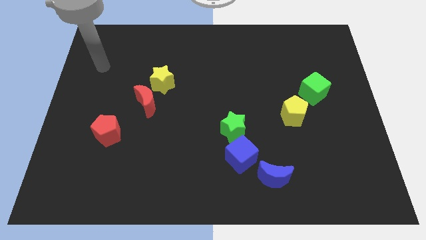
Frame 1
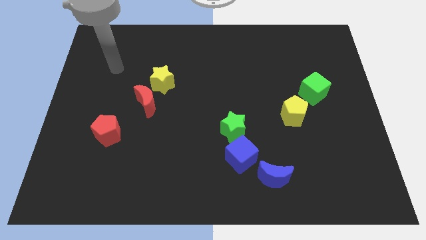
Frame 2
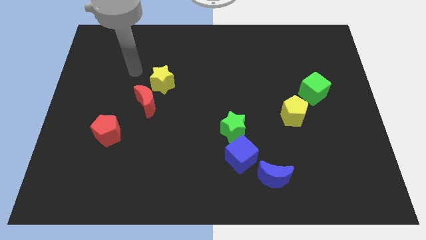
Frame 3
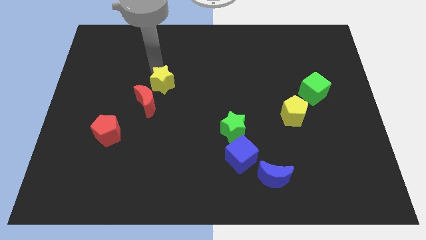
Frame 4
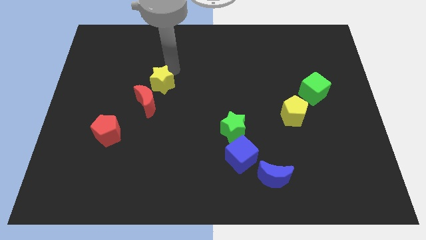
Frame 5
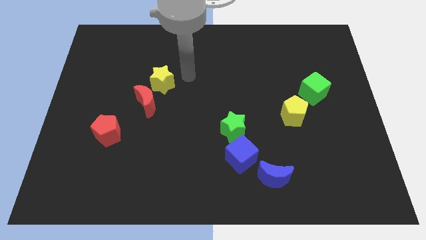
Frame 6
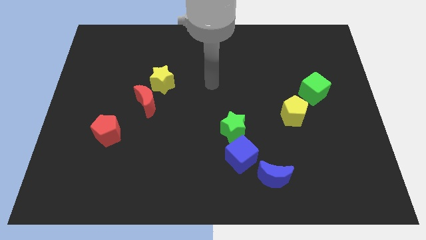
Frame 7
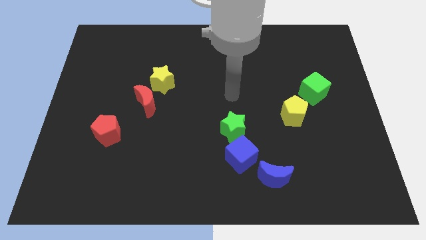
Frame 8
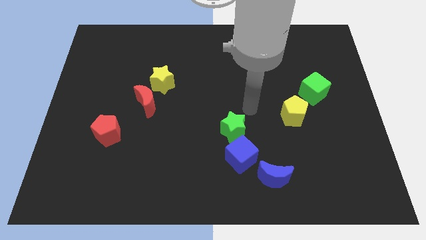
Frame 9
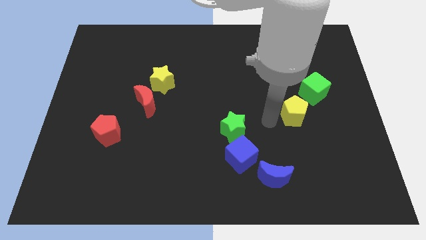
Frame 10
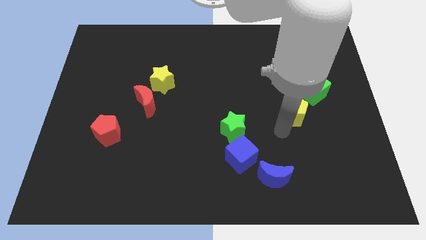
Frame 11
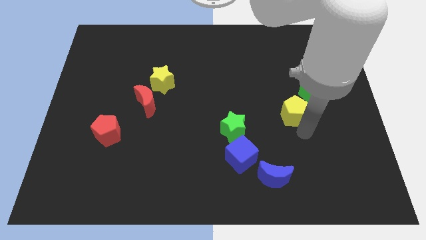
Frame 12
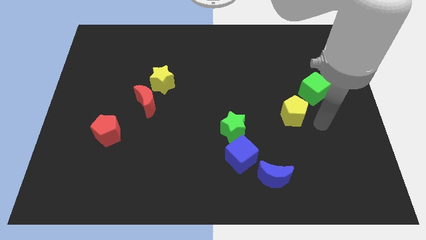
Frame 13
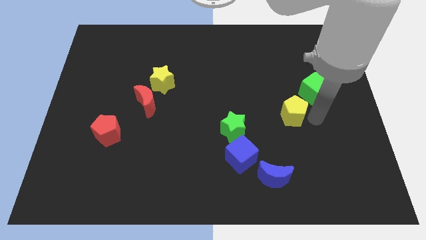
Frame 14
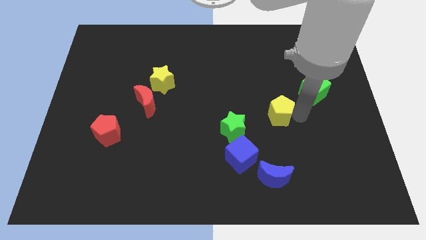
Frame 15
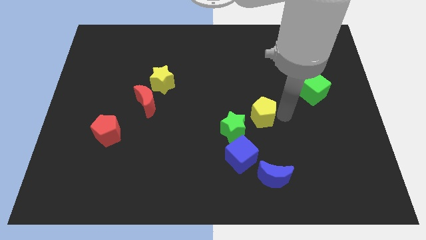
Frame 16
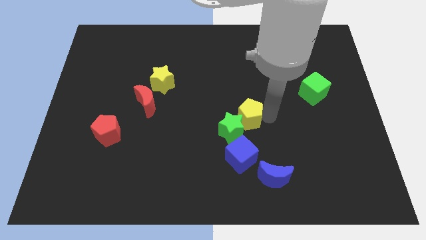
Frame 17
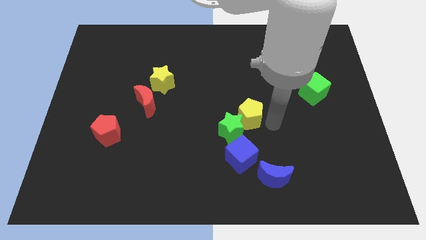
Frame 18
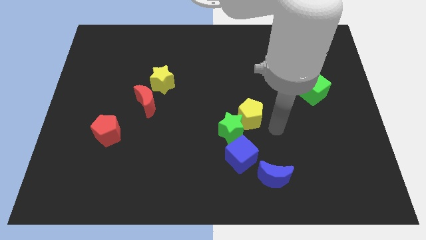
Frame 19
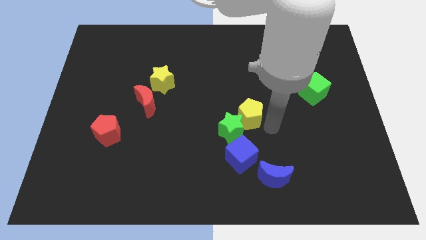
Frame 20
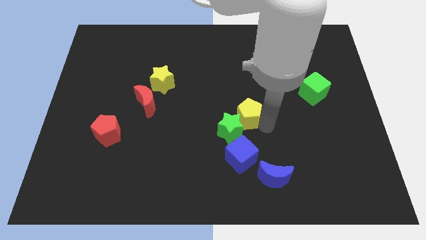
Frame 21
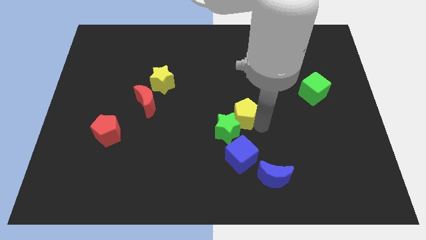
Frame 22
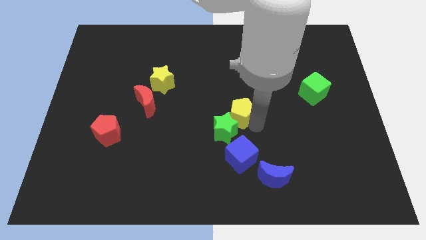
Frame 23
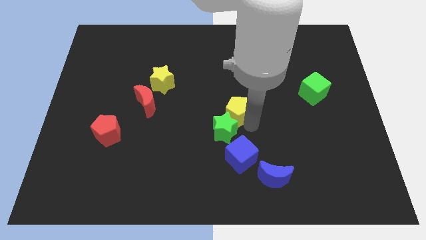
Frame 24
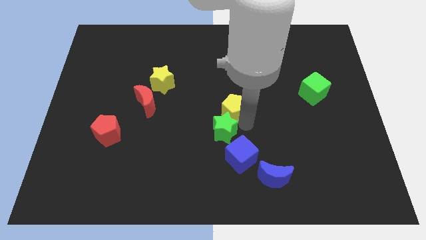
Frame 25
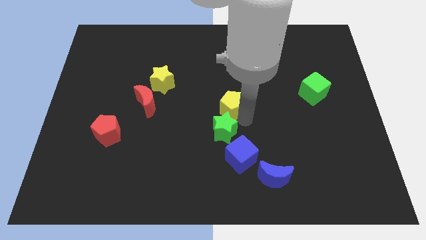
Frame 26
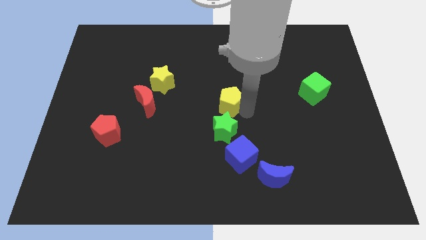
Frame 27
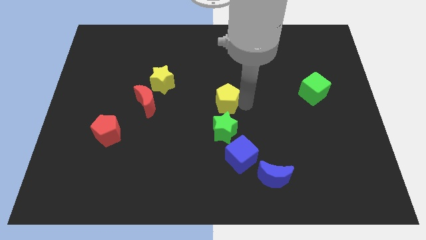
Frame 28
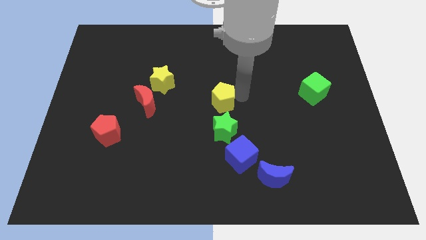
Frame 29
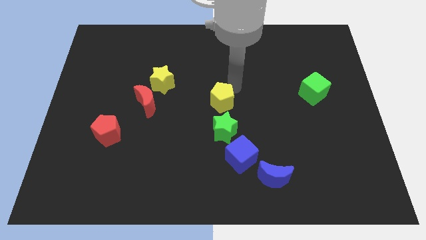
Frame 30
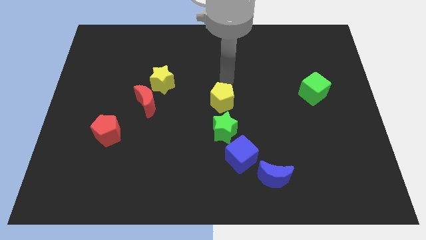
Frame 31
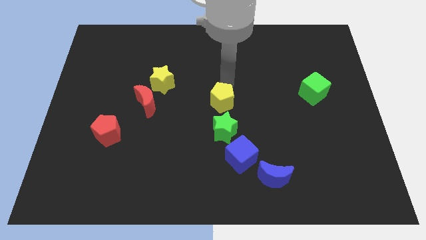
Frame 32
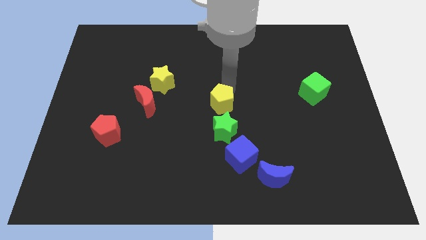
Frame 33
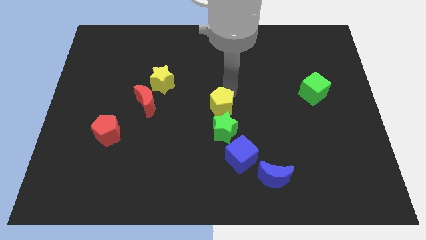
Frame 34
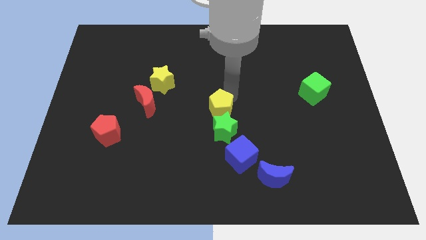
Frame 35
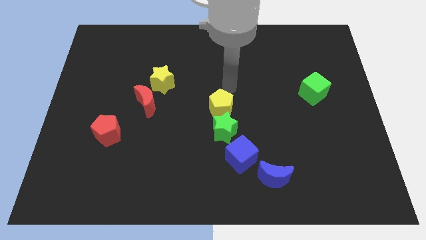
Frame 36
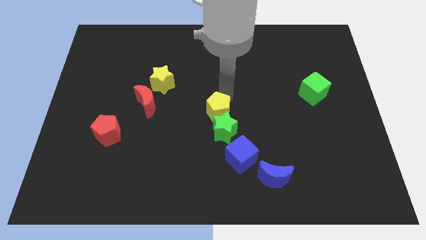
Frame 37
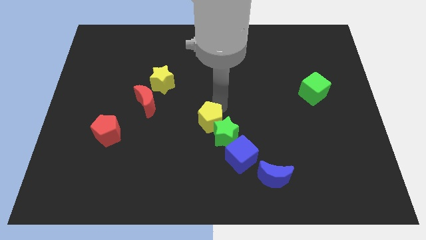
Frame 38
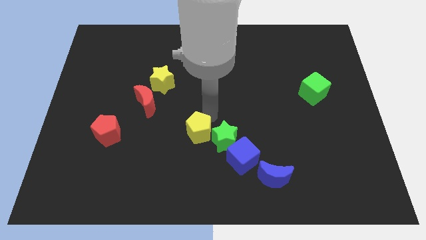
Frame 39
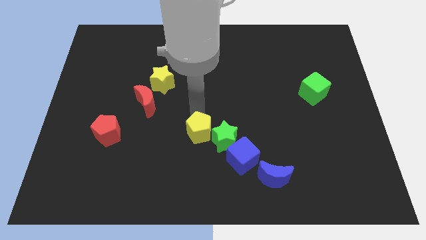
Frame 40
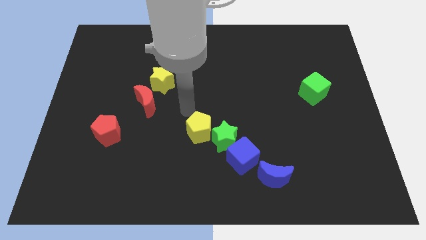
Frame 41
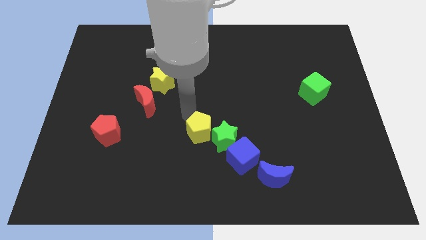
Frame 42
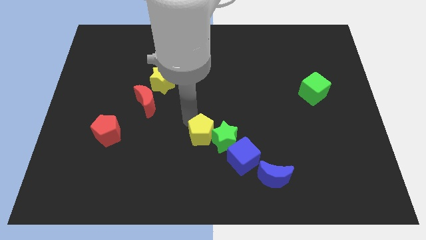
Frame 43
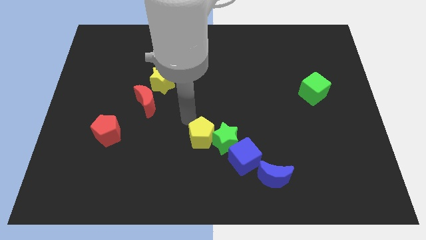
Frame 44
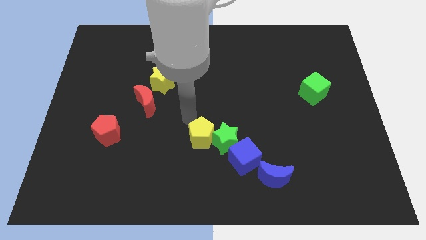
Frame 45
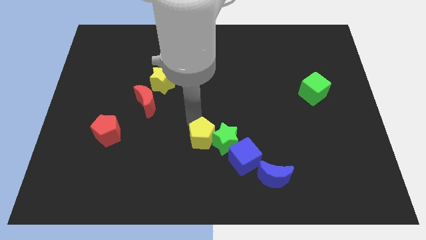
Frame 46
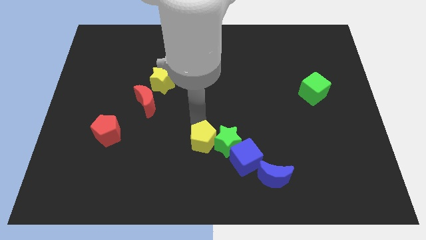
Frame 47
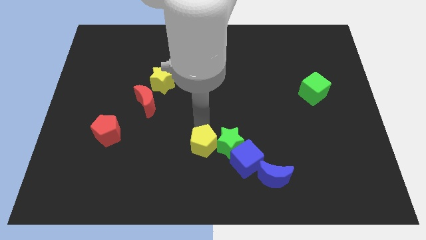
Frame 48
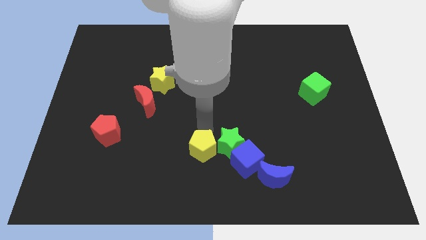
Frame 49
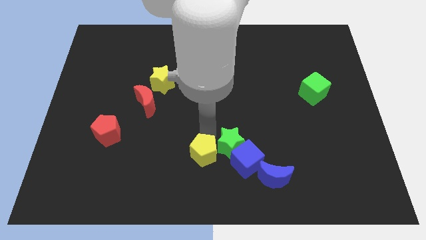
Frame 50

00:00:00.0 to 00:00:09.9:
slide the yellow pentagon to the bottom side

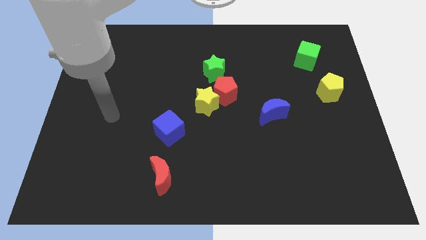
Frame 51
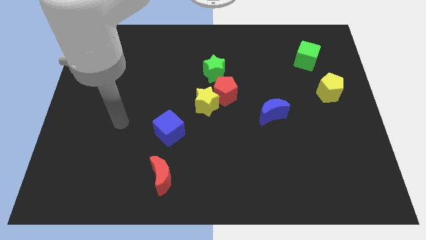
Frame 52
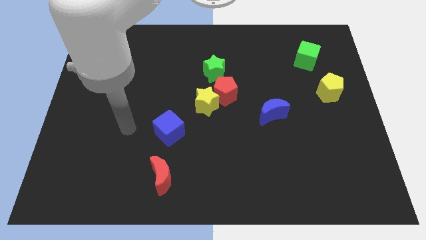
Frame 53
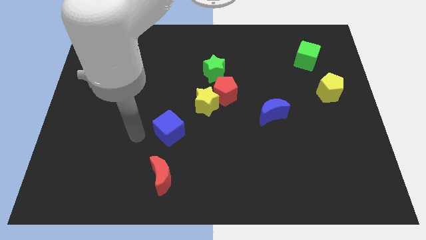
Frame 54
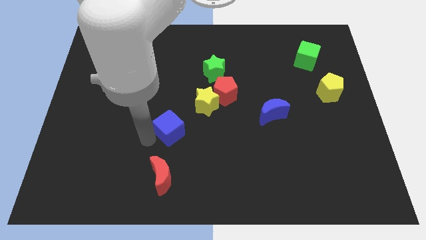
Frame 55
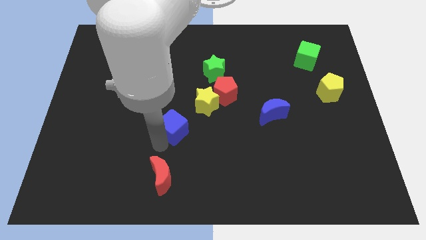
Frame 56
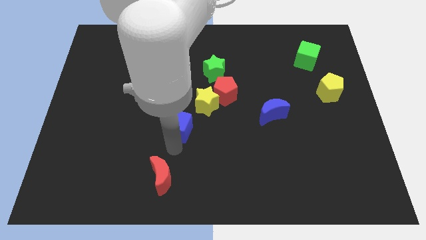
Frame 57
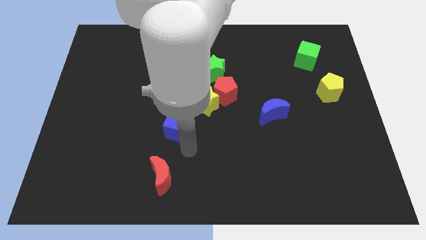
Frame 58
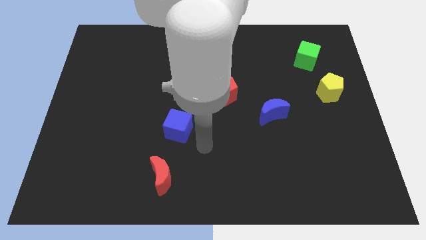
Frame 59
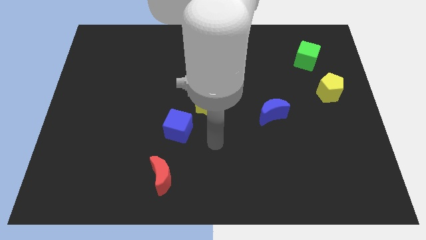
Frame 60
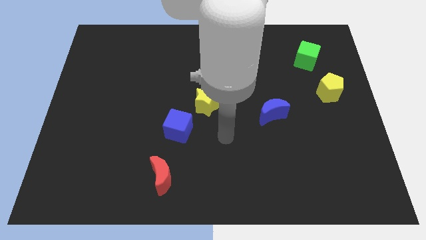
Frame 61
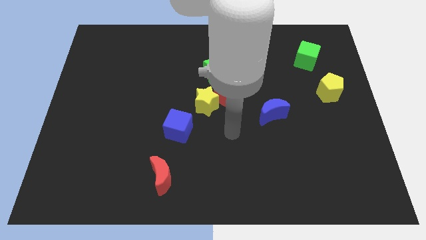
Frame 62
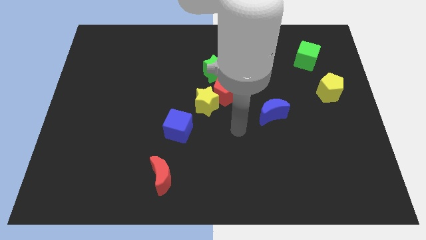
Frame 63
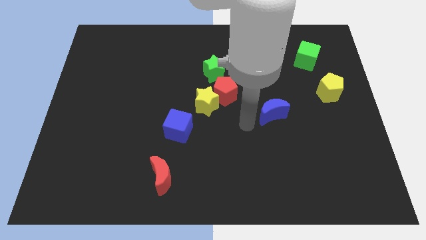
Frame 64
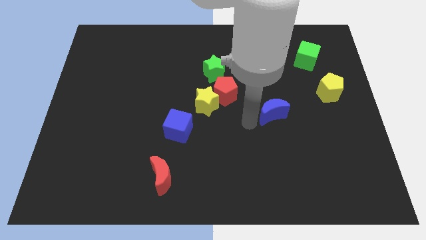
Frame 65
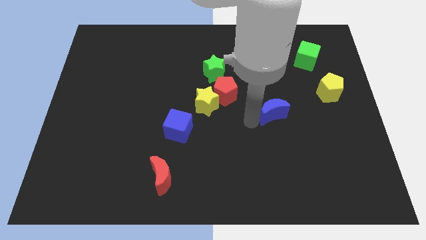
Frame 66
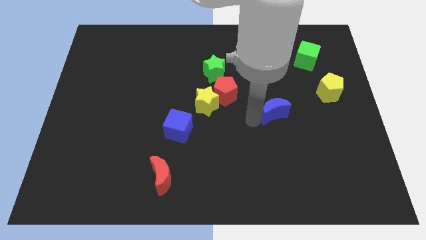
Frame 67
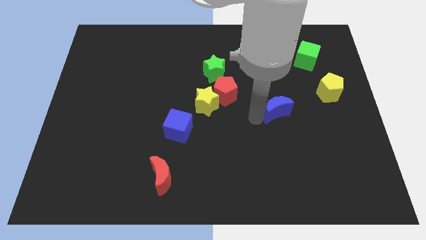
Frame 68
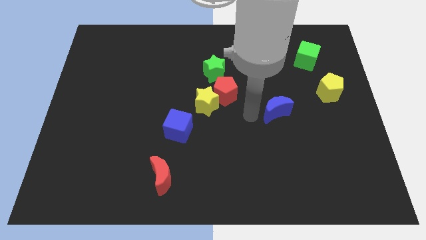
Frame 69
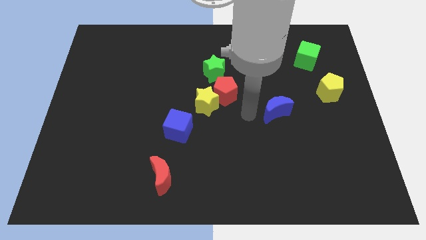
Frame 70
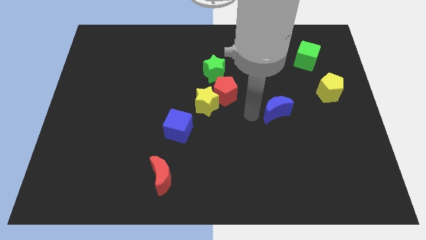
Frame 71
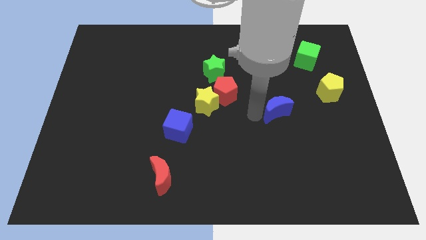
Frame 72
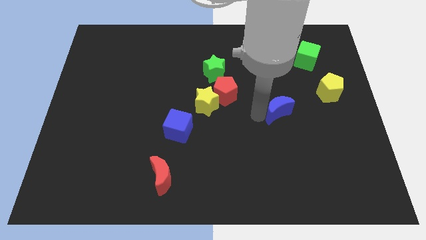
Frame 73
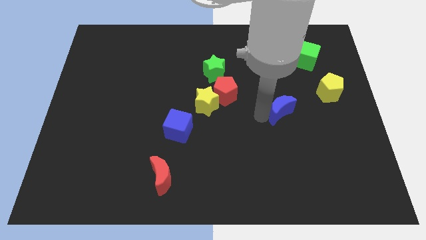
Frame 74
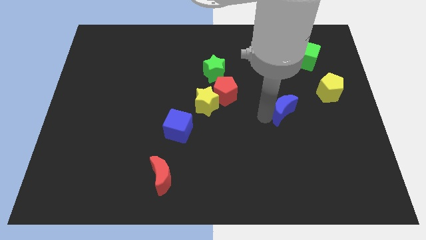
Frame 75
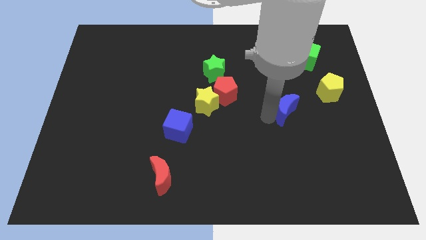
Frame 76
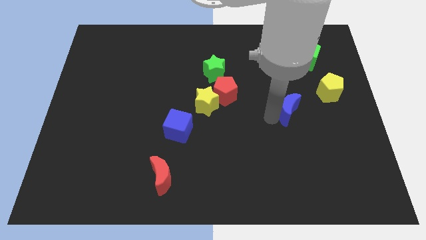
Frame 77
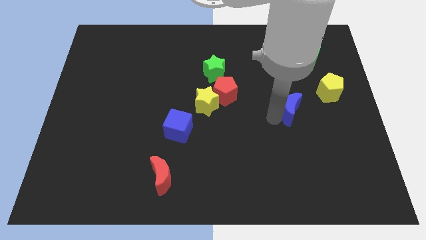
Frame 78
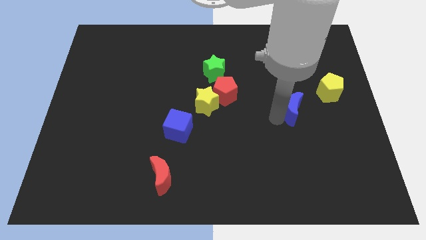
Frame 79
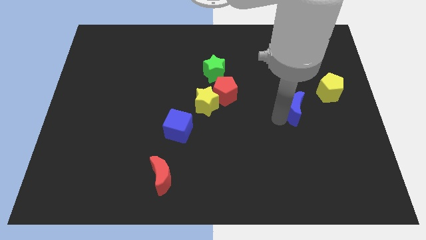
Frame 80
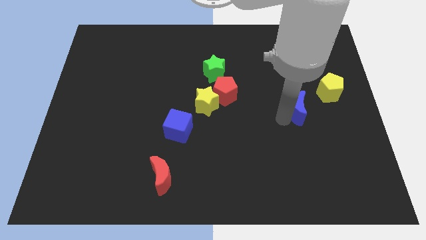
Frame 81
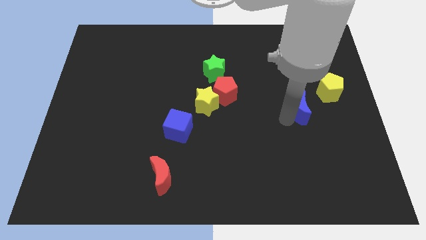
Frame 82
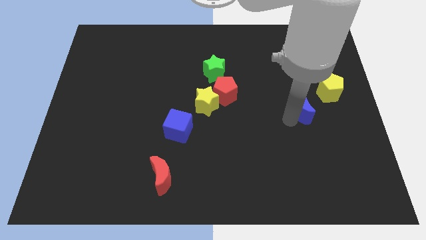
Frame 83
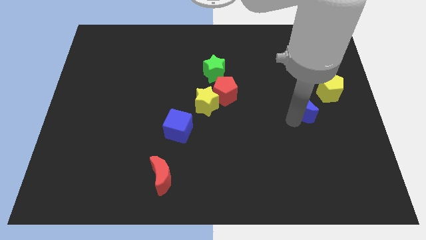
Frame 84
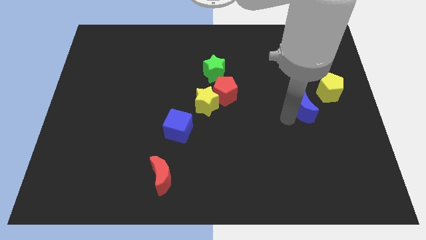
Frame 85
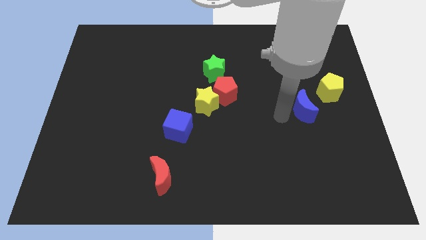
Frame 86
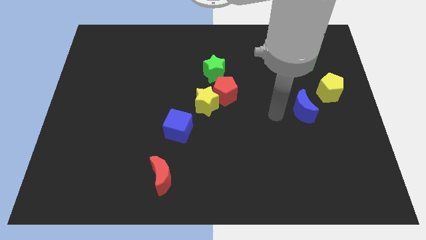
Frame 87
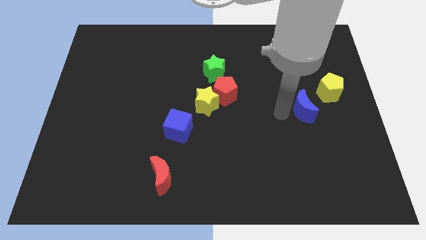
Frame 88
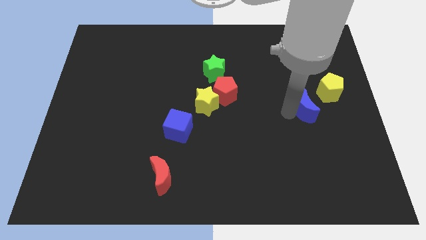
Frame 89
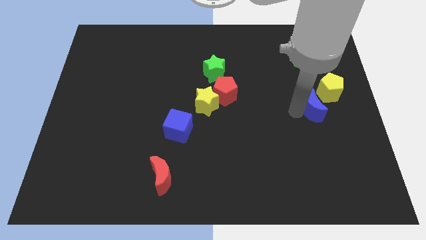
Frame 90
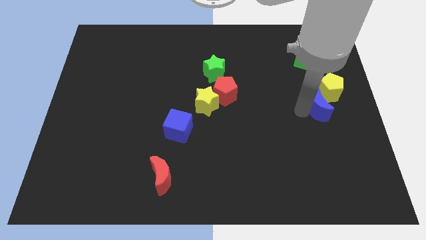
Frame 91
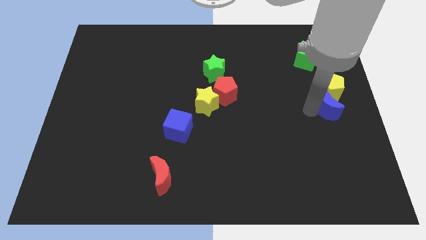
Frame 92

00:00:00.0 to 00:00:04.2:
push the blue moon to the right side of the board
